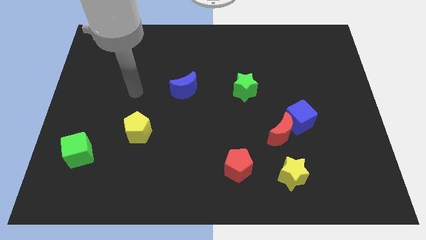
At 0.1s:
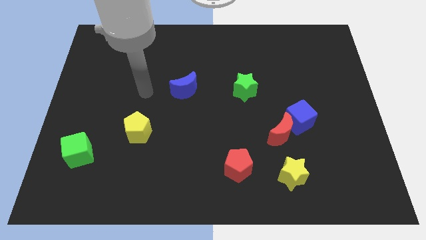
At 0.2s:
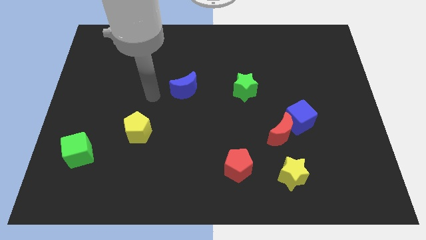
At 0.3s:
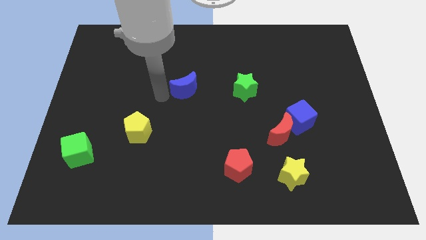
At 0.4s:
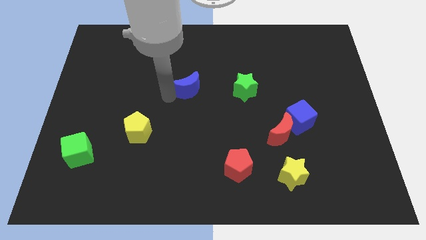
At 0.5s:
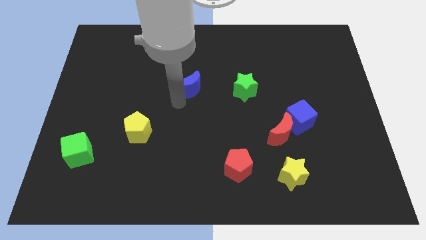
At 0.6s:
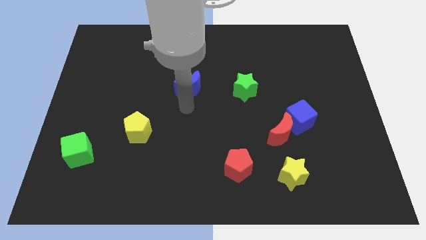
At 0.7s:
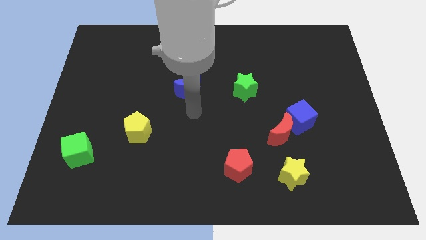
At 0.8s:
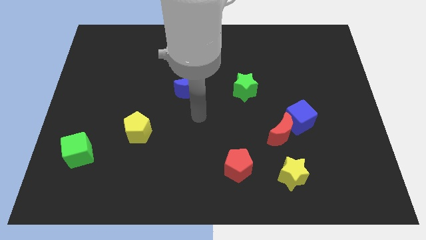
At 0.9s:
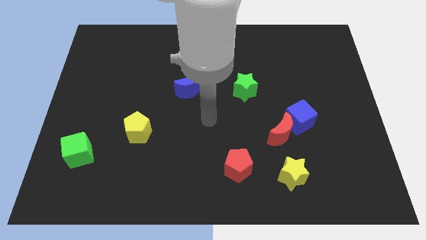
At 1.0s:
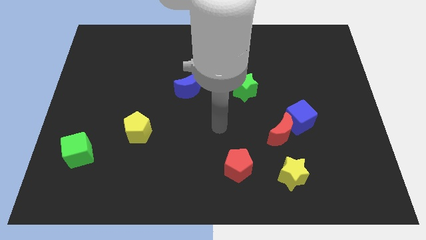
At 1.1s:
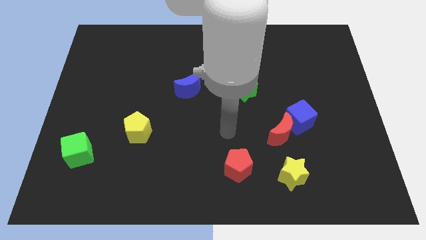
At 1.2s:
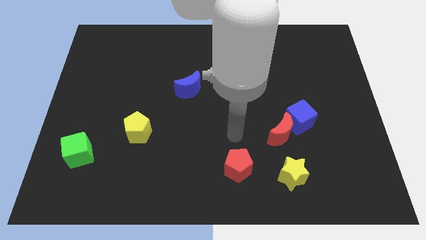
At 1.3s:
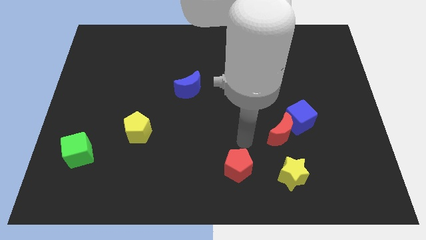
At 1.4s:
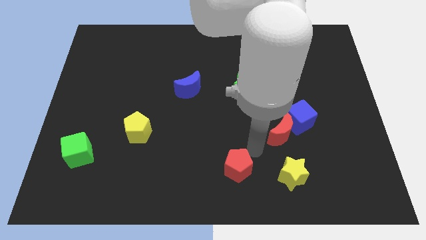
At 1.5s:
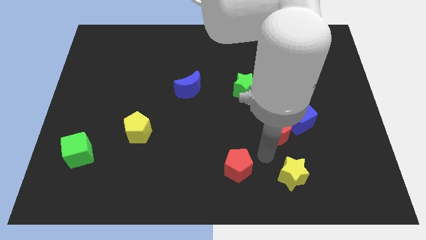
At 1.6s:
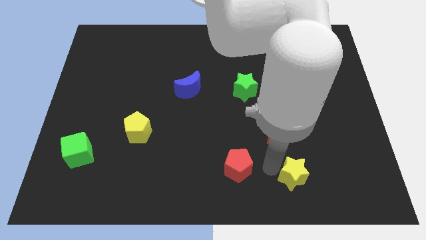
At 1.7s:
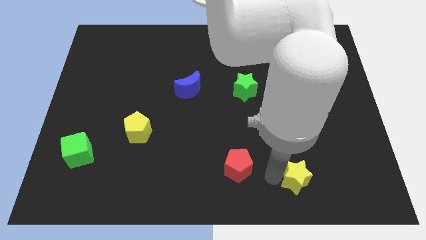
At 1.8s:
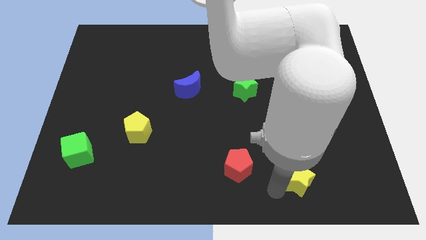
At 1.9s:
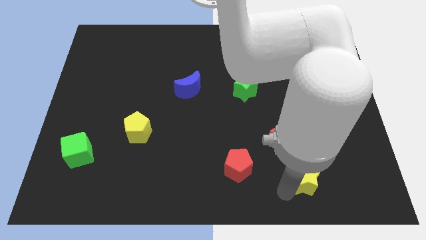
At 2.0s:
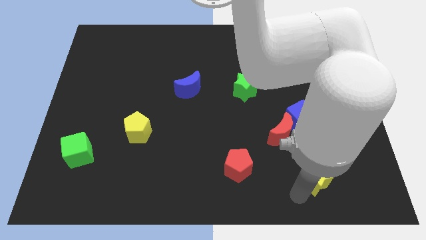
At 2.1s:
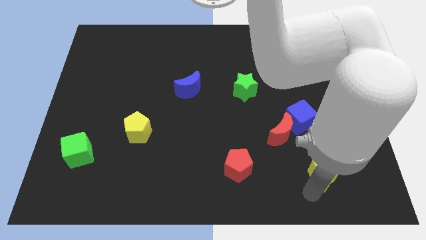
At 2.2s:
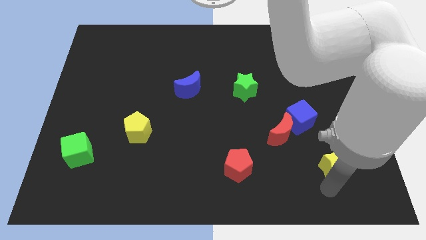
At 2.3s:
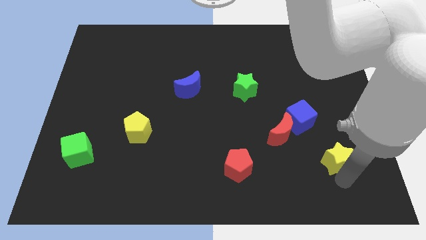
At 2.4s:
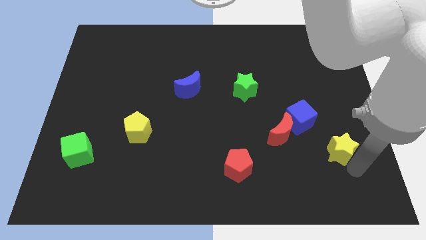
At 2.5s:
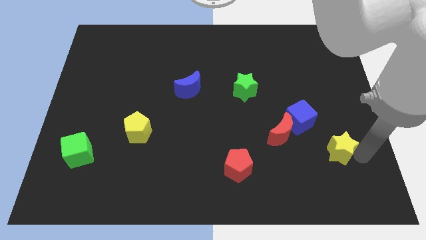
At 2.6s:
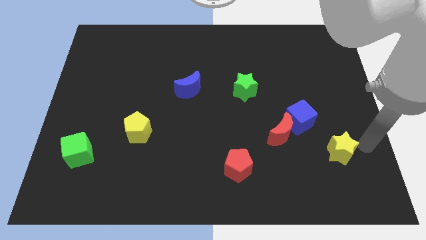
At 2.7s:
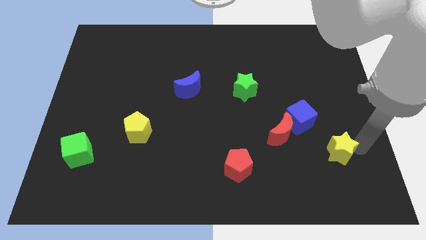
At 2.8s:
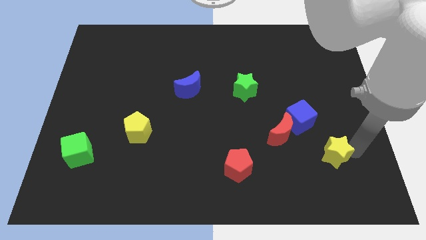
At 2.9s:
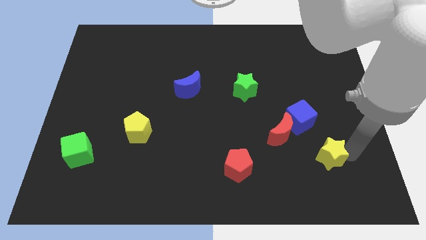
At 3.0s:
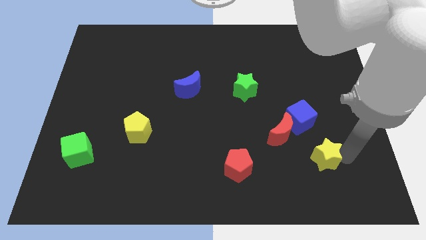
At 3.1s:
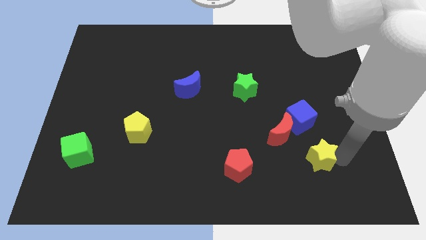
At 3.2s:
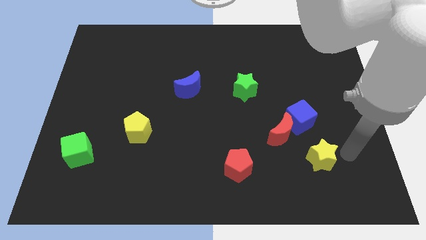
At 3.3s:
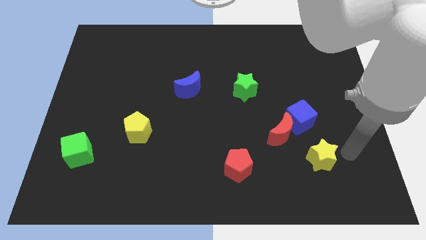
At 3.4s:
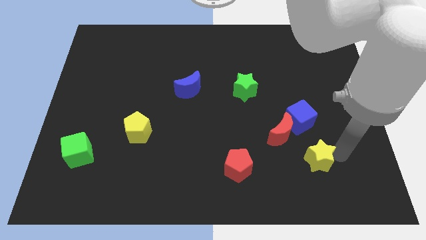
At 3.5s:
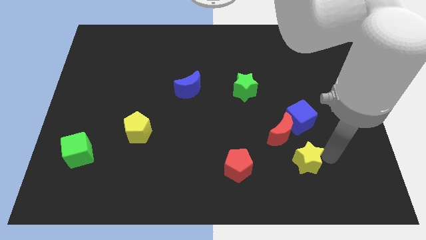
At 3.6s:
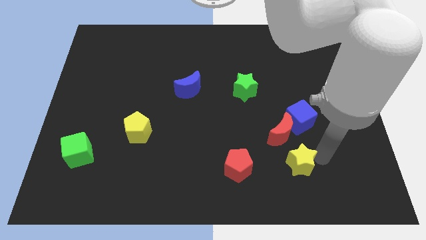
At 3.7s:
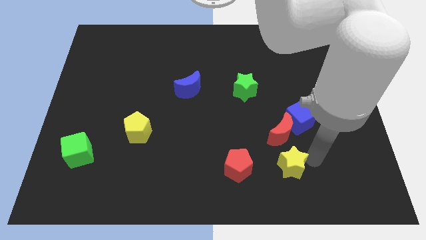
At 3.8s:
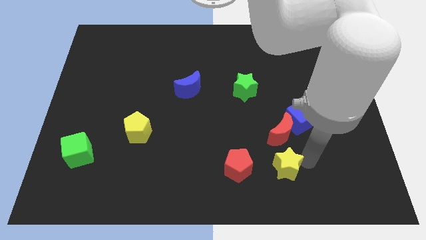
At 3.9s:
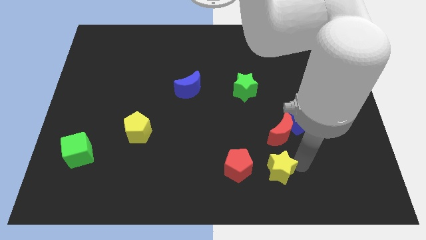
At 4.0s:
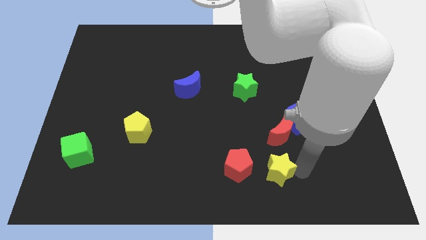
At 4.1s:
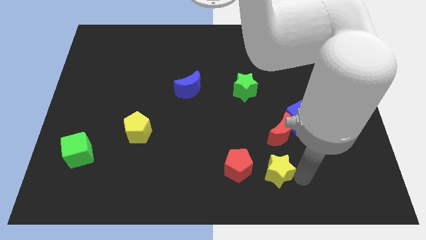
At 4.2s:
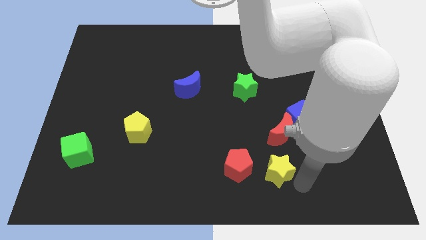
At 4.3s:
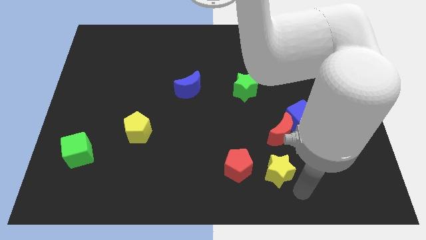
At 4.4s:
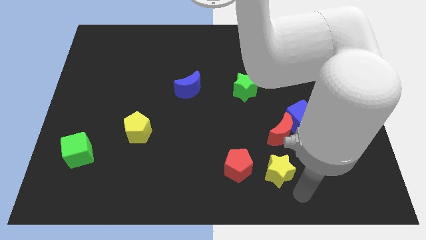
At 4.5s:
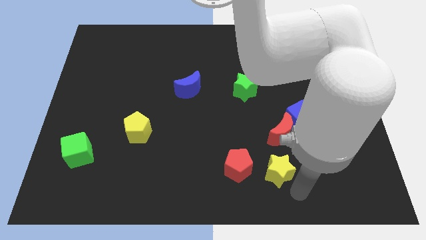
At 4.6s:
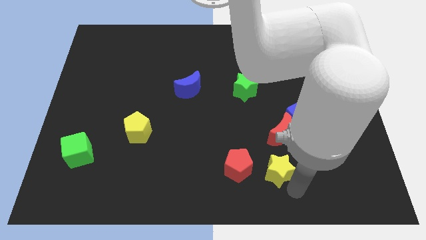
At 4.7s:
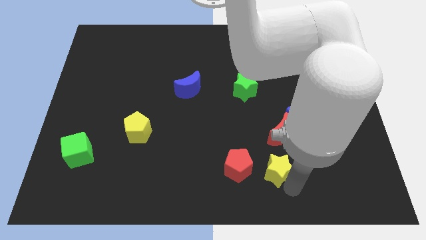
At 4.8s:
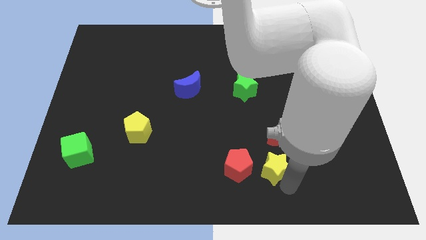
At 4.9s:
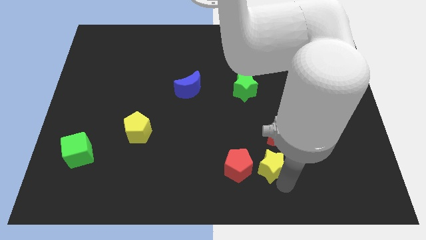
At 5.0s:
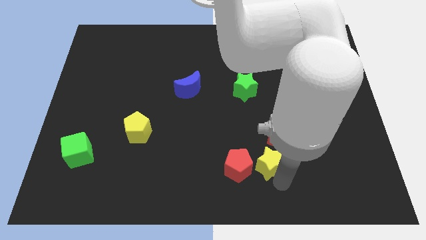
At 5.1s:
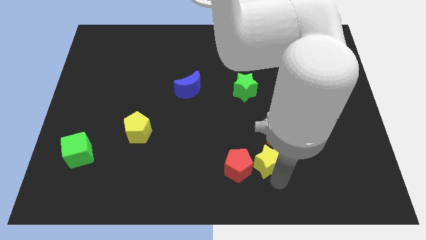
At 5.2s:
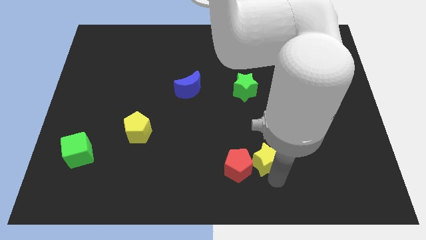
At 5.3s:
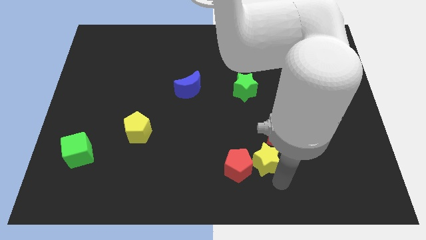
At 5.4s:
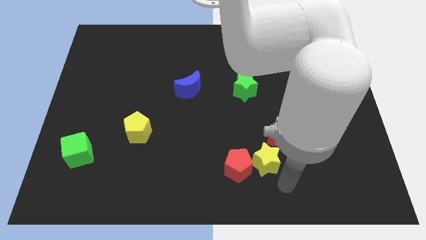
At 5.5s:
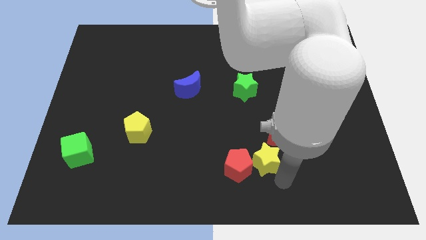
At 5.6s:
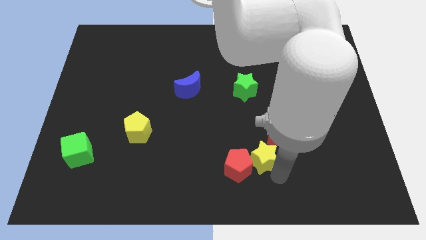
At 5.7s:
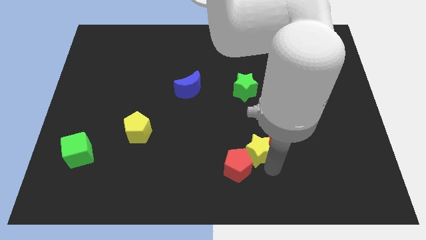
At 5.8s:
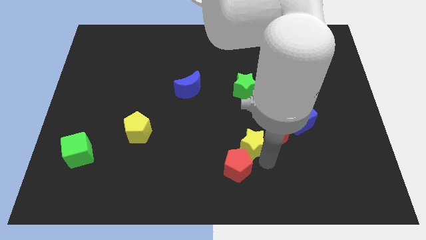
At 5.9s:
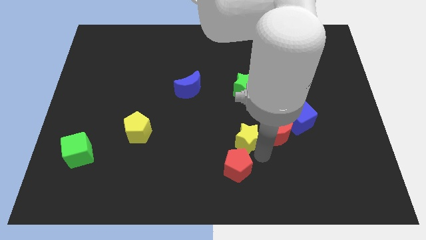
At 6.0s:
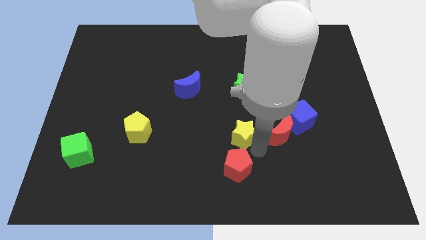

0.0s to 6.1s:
move the yellow star to the center of the board

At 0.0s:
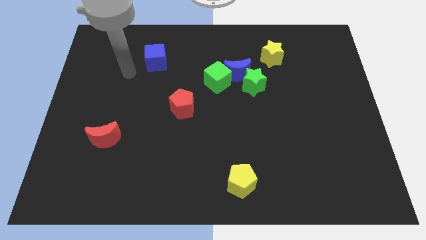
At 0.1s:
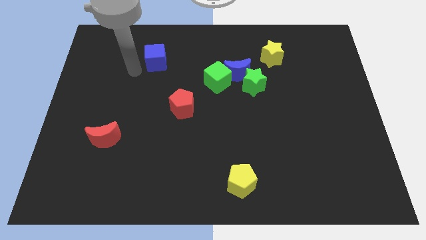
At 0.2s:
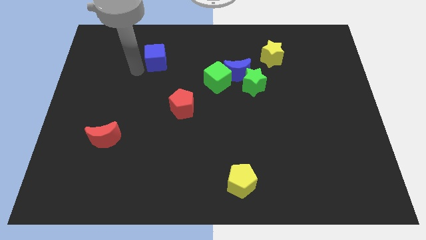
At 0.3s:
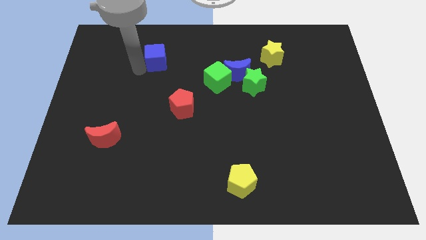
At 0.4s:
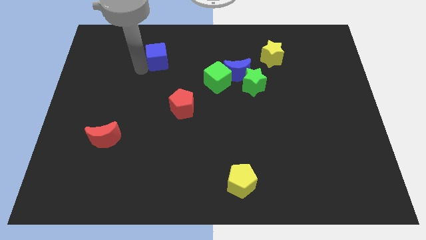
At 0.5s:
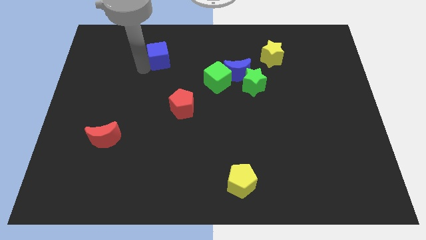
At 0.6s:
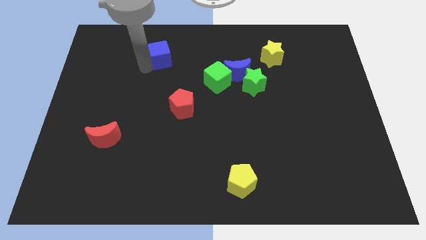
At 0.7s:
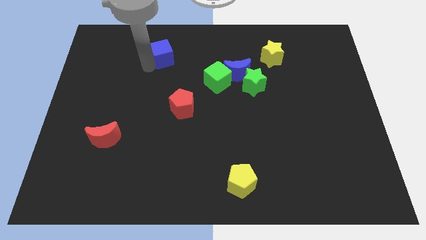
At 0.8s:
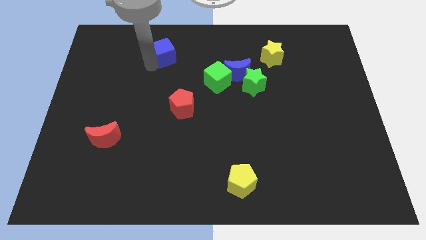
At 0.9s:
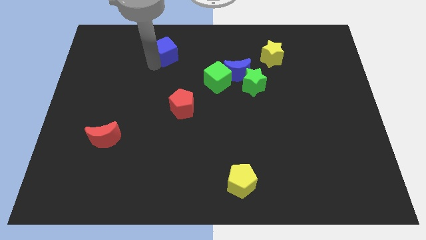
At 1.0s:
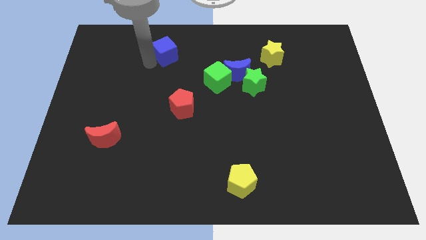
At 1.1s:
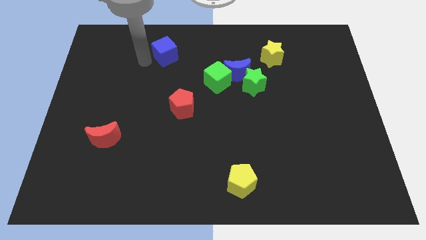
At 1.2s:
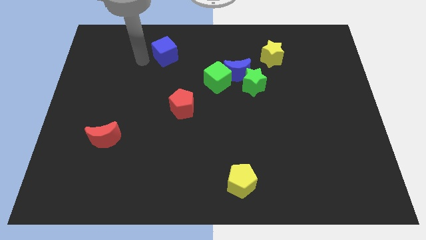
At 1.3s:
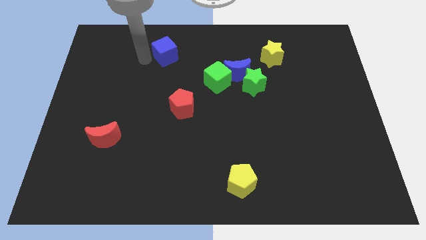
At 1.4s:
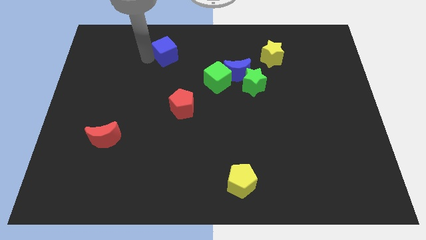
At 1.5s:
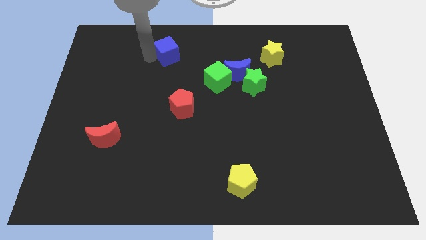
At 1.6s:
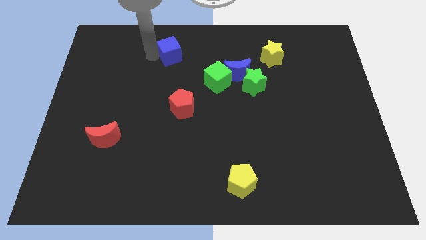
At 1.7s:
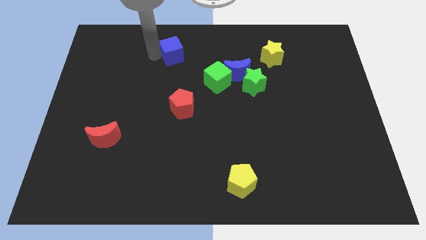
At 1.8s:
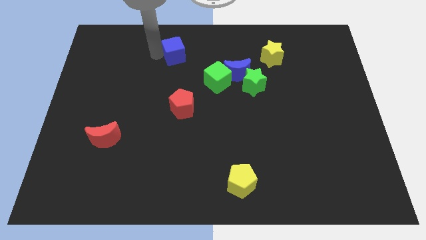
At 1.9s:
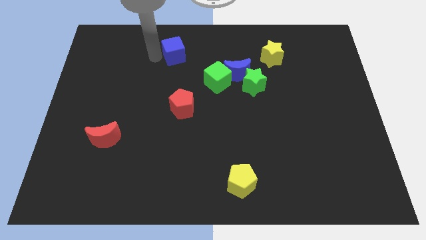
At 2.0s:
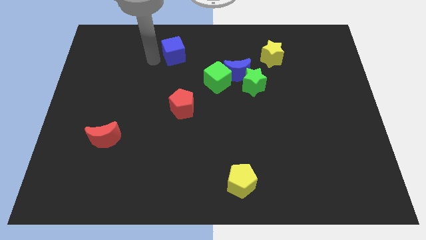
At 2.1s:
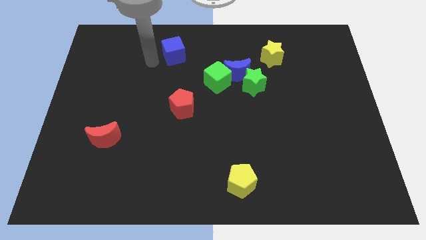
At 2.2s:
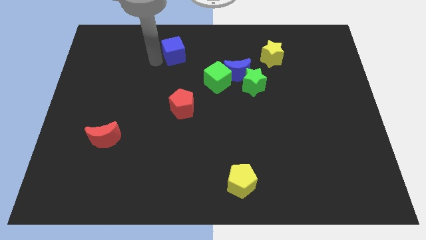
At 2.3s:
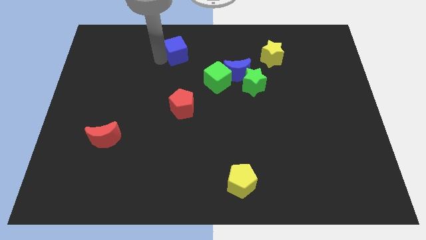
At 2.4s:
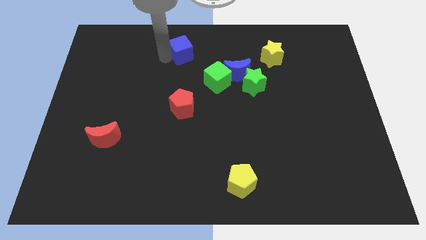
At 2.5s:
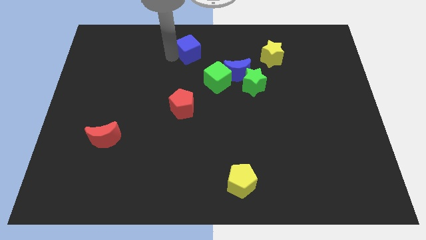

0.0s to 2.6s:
move the blue cube to the towards your base
